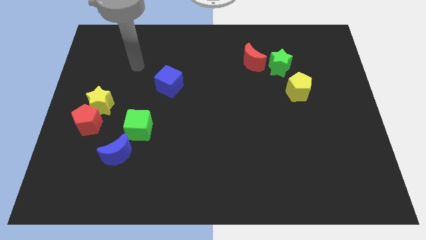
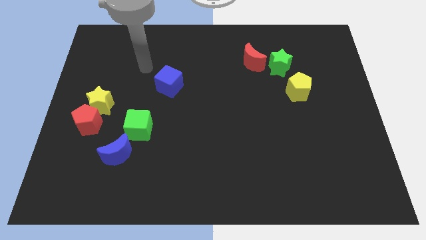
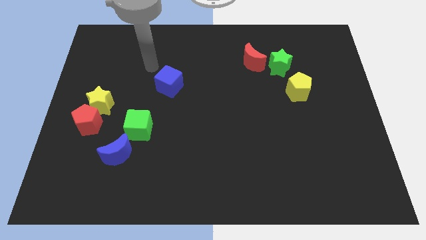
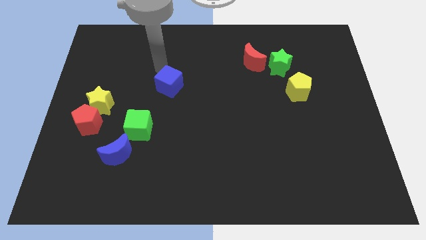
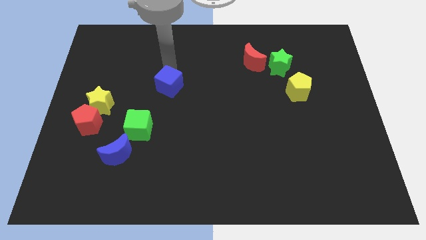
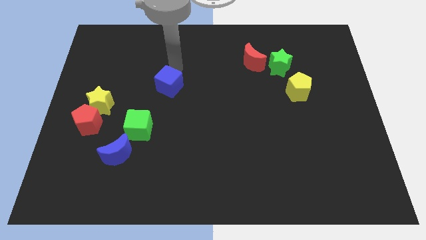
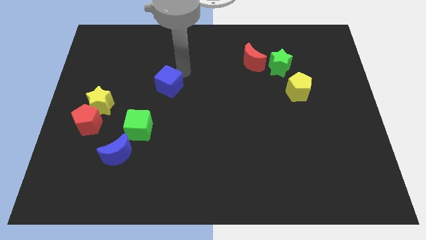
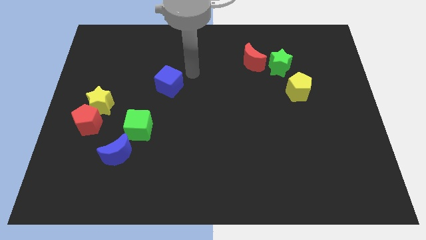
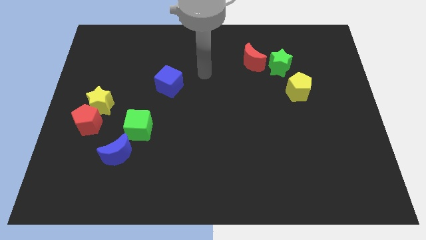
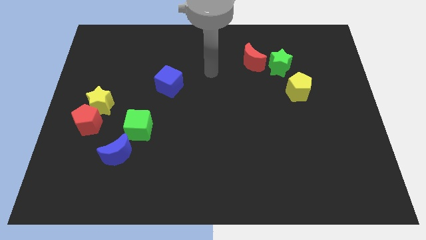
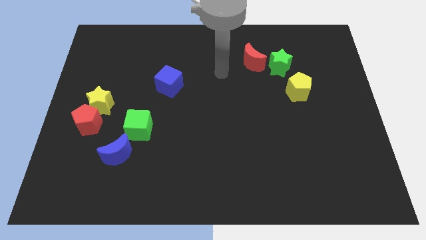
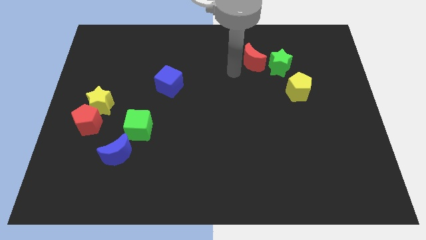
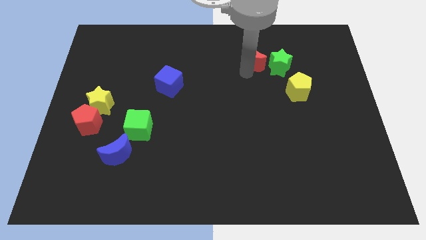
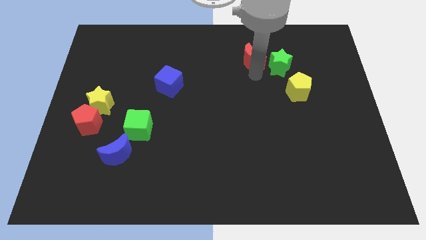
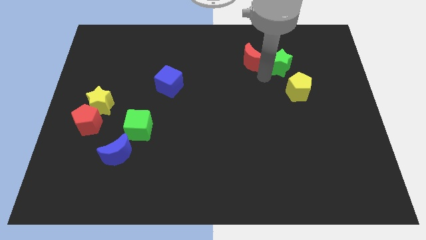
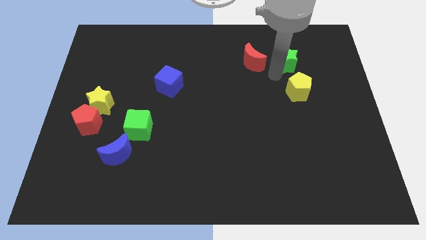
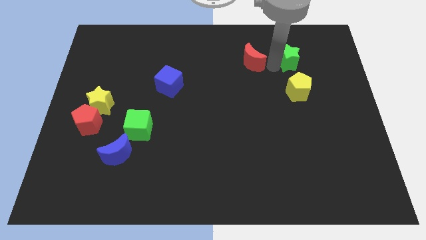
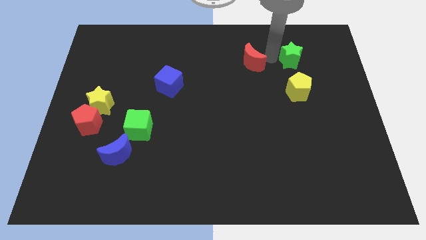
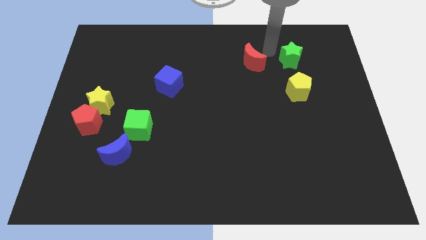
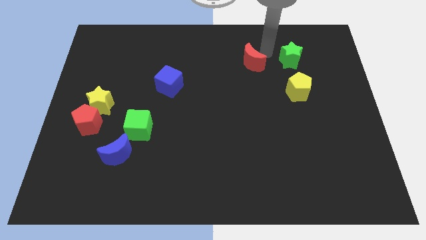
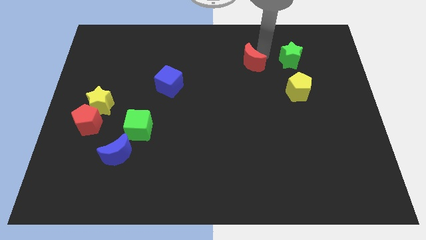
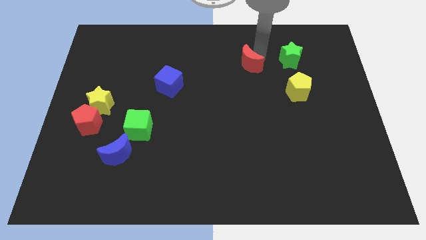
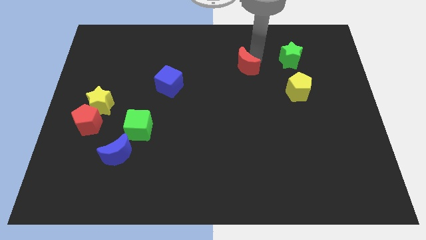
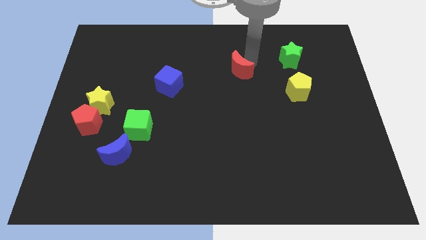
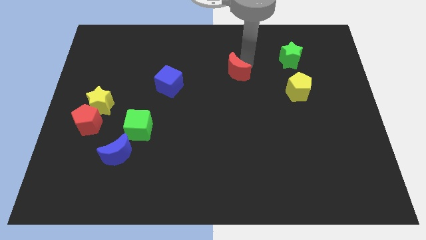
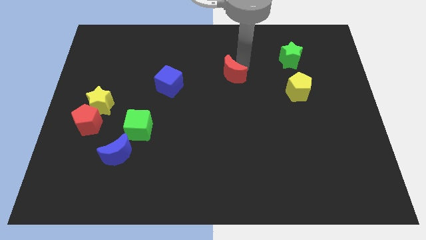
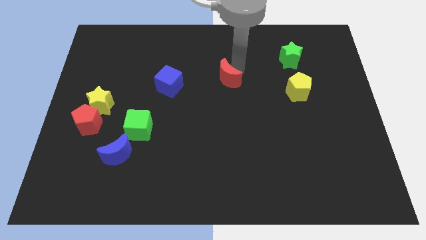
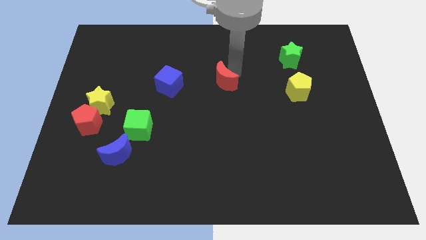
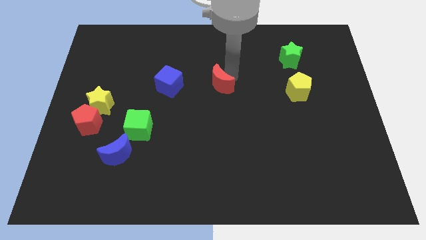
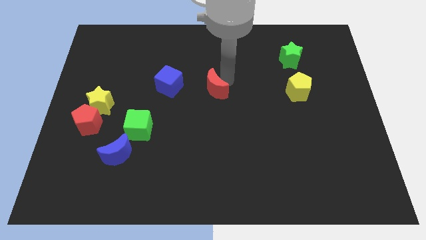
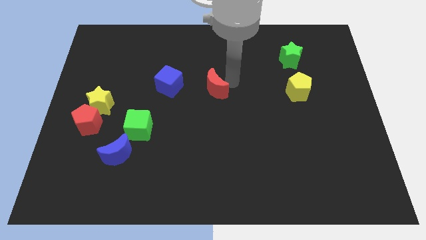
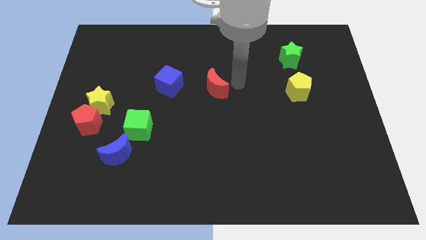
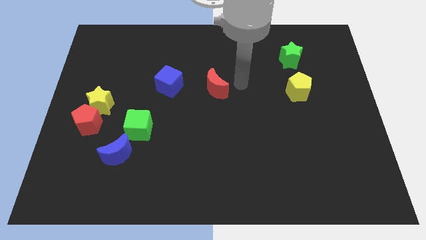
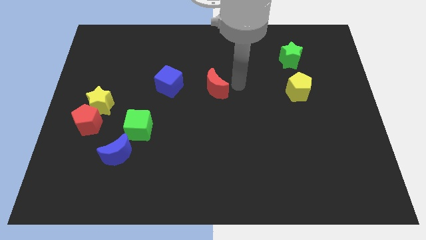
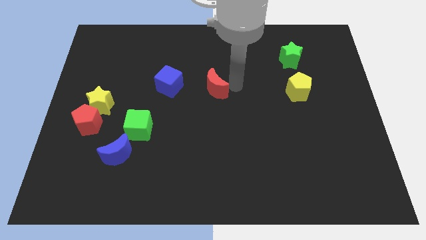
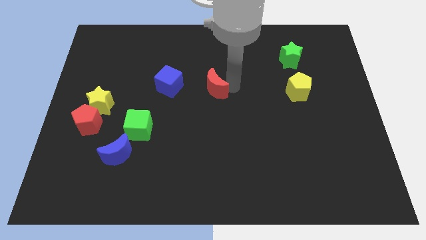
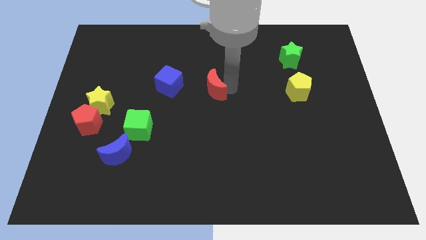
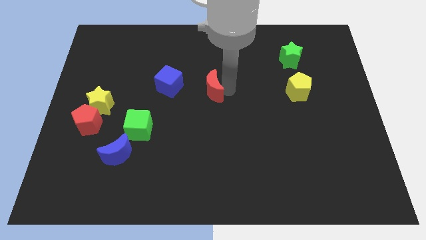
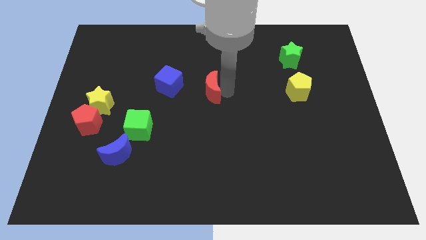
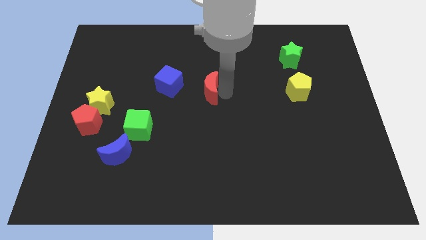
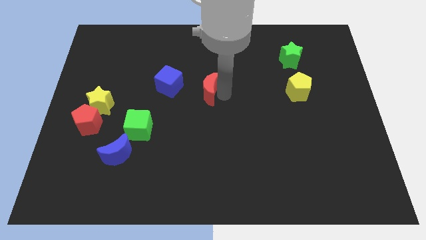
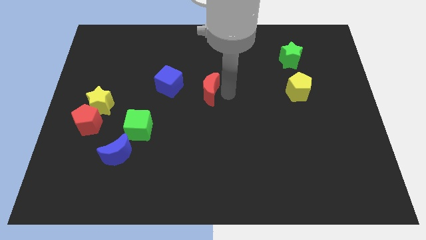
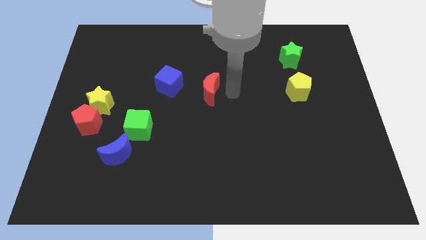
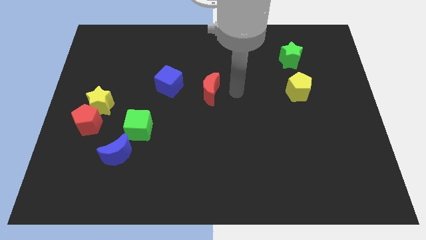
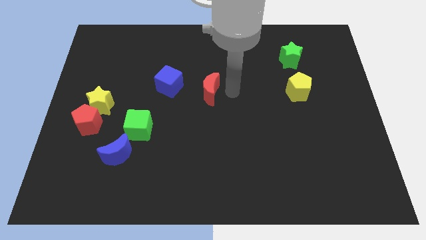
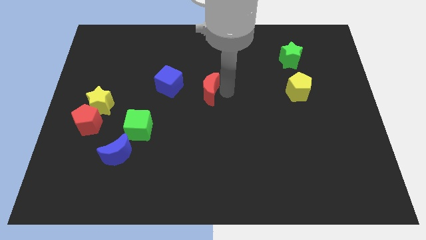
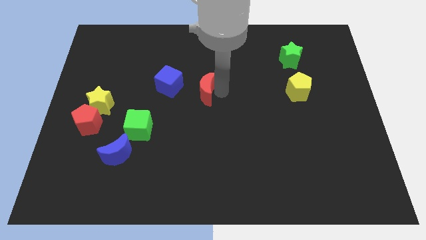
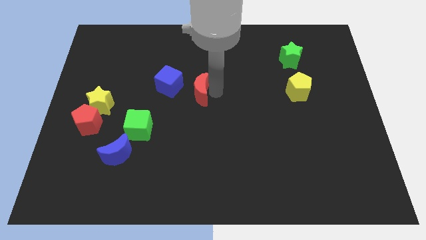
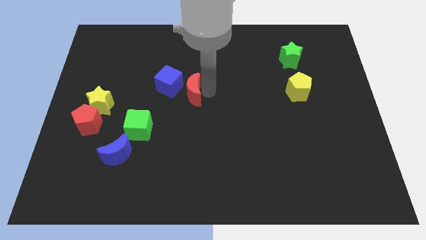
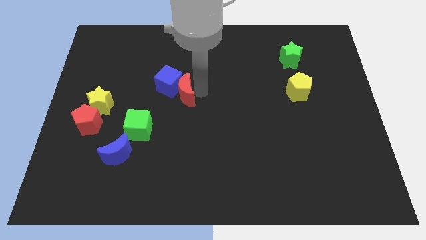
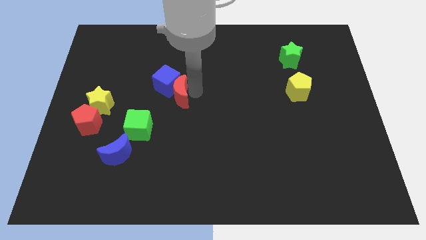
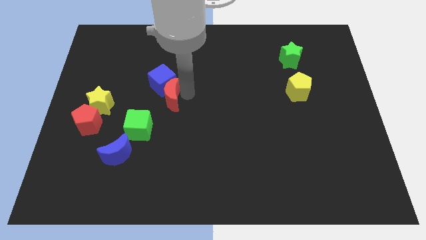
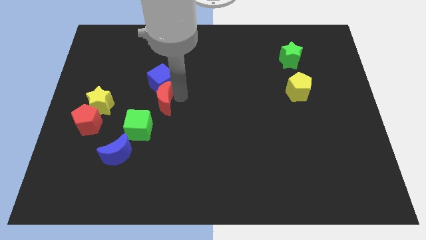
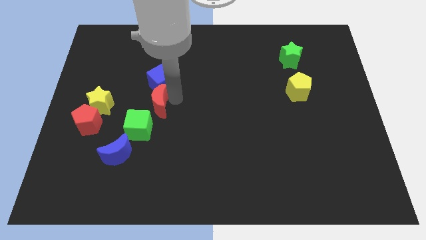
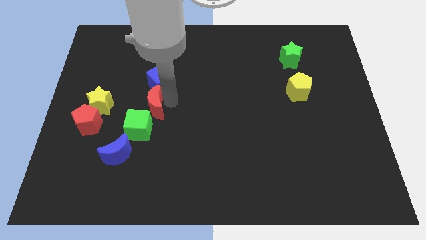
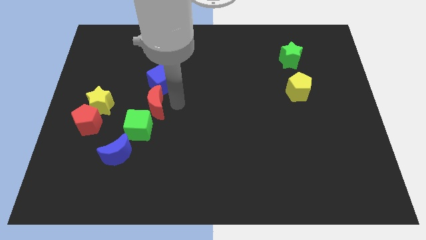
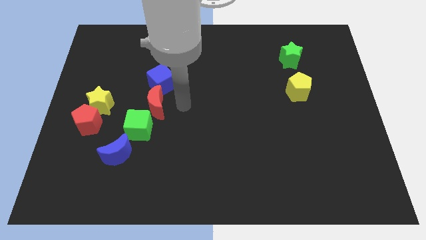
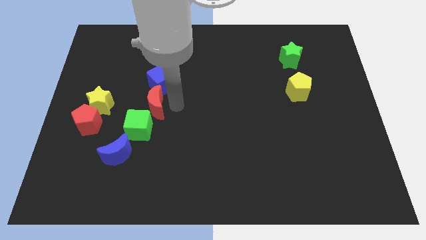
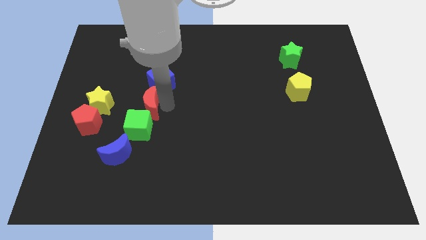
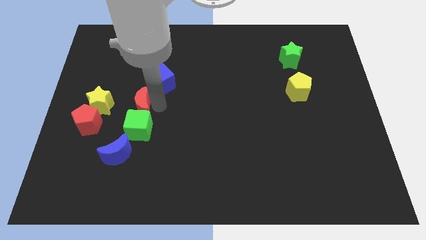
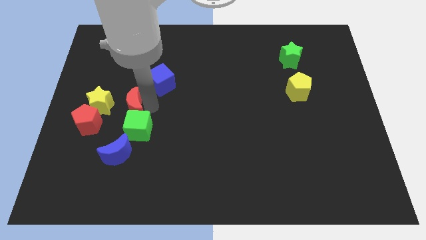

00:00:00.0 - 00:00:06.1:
slide the red moon to the top right of the red pentagon

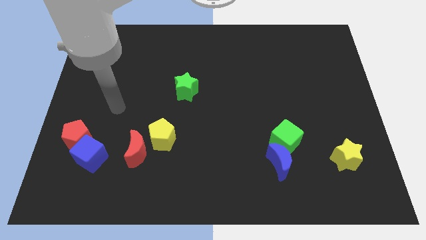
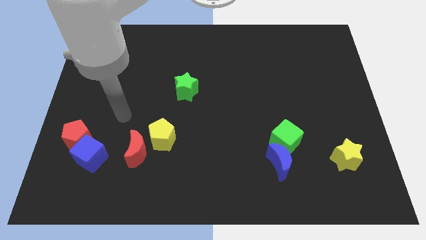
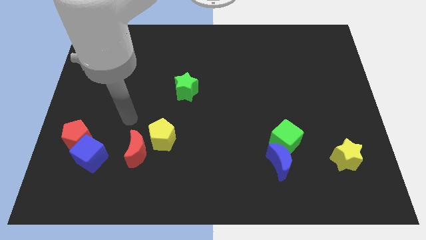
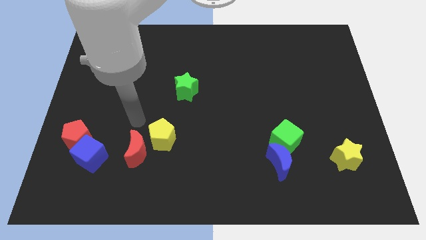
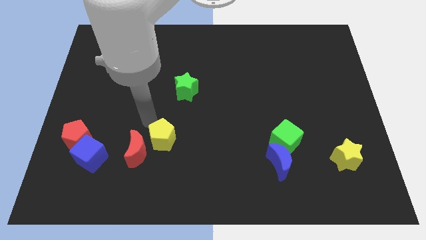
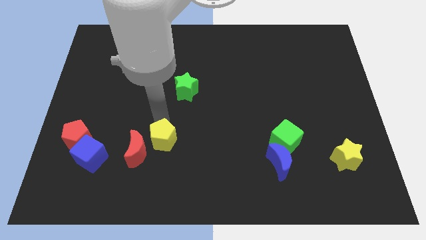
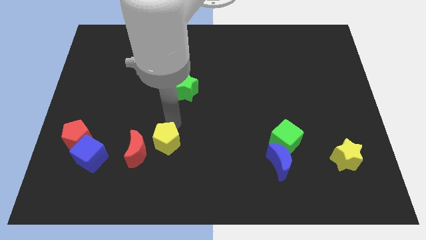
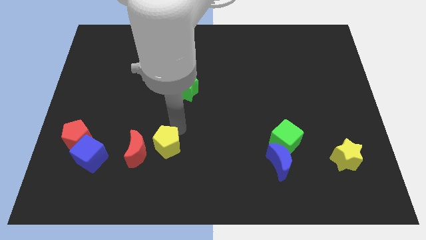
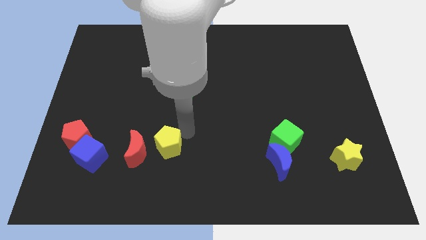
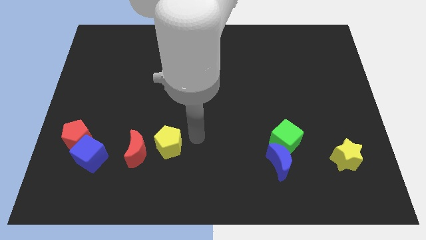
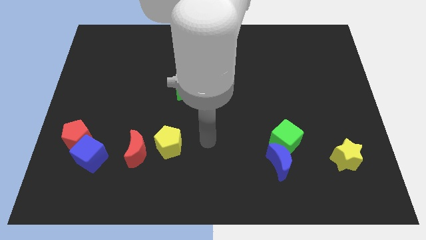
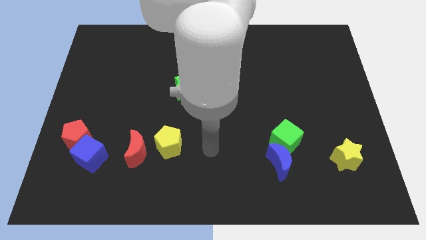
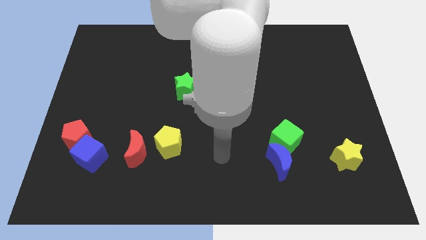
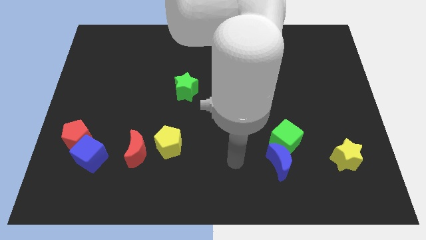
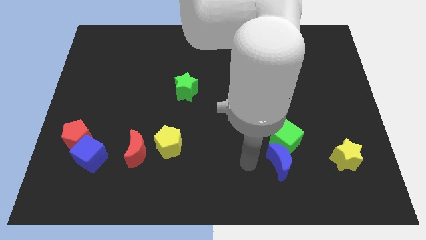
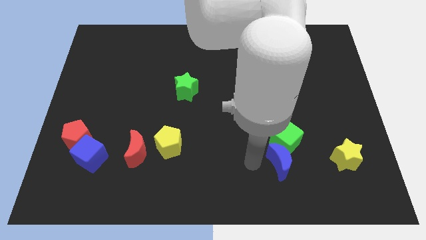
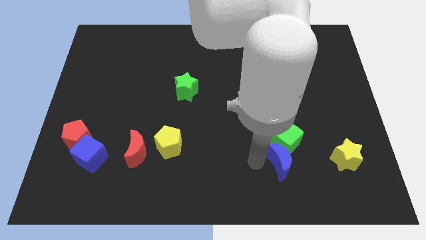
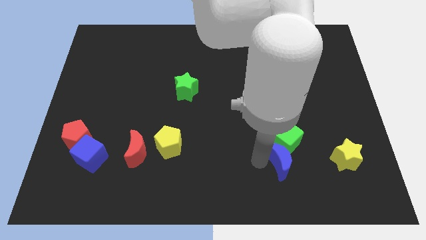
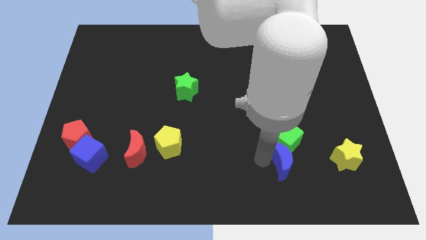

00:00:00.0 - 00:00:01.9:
slide the blue moon to the bottom right of the green cube
